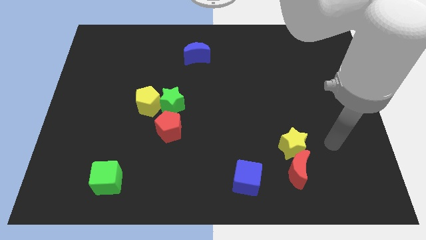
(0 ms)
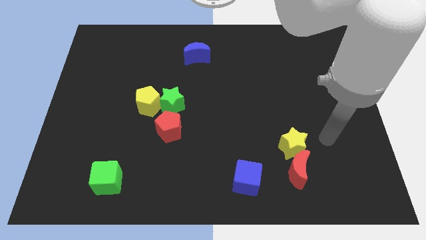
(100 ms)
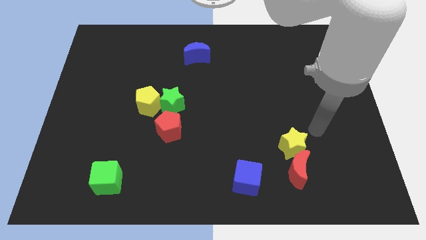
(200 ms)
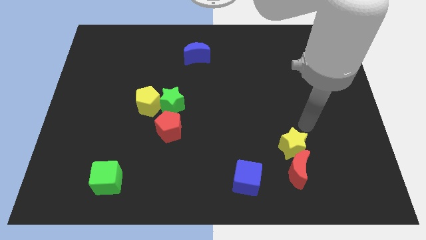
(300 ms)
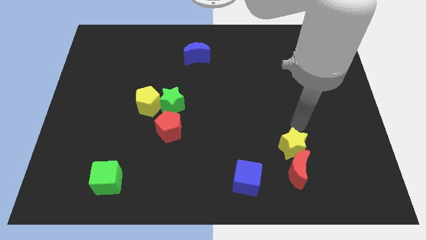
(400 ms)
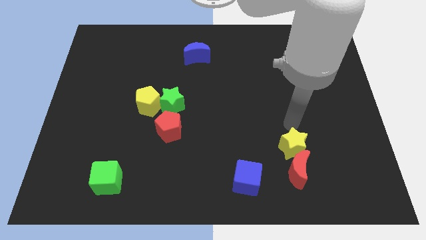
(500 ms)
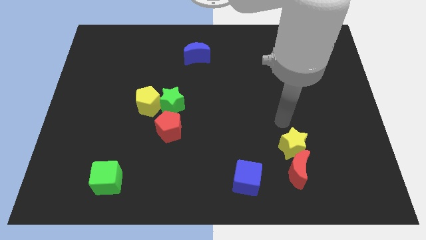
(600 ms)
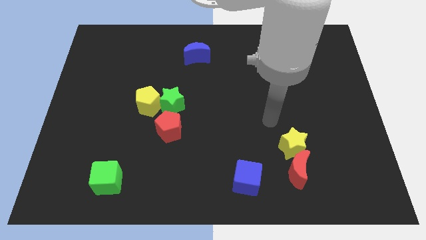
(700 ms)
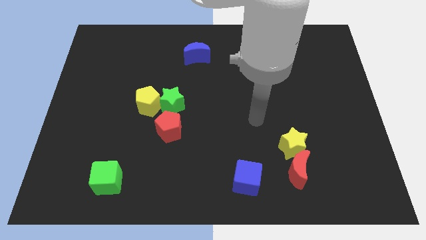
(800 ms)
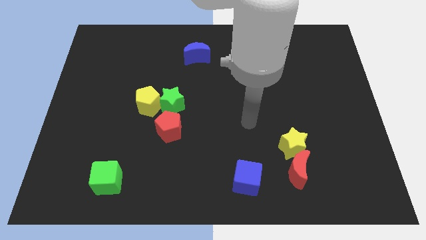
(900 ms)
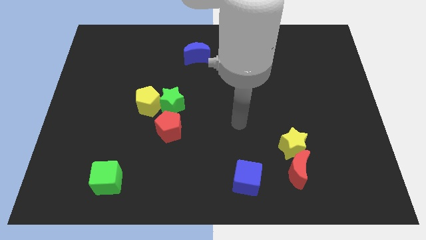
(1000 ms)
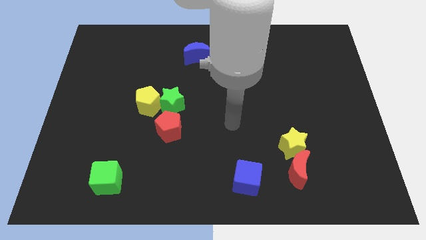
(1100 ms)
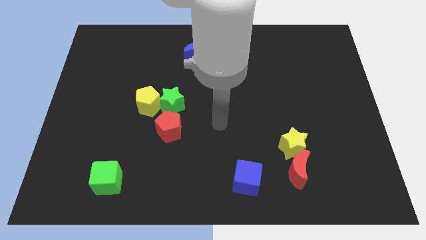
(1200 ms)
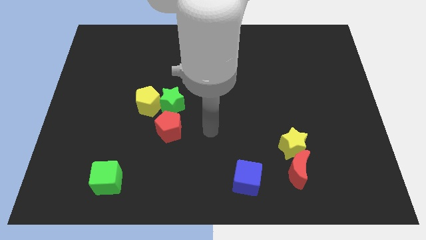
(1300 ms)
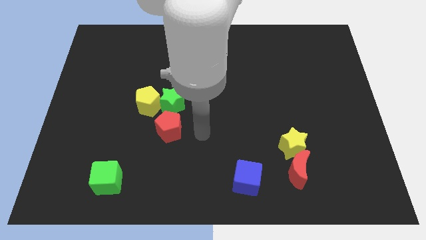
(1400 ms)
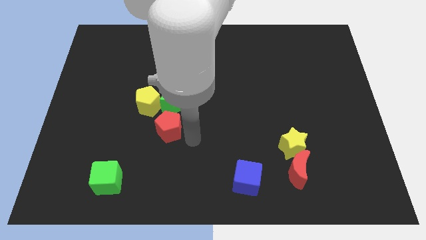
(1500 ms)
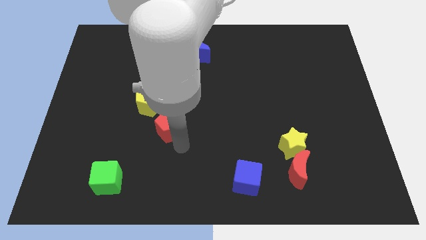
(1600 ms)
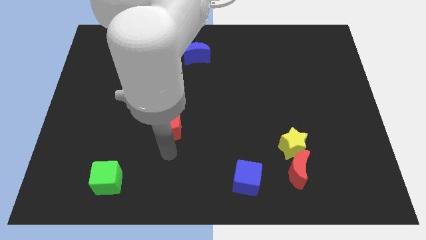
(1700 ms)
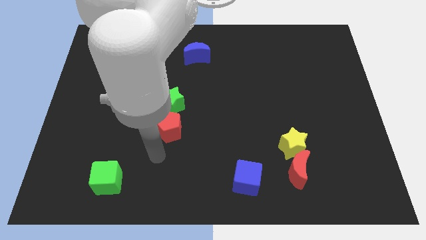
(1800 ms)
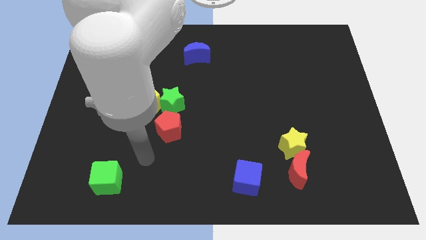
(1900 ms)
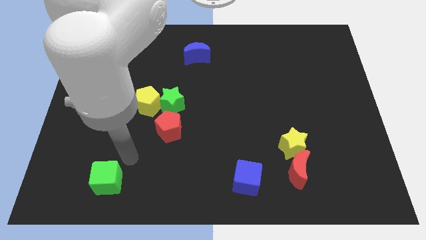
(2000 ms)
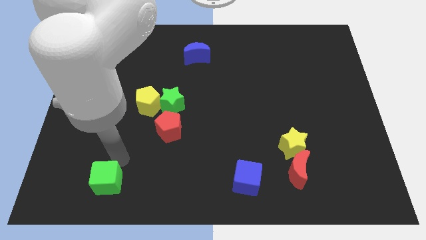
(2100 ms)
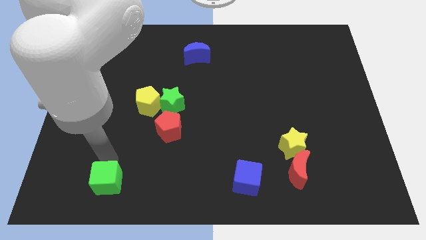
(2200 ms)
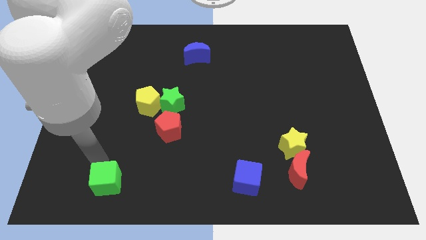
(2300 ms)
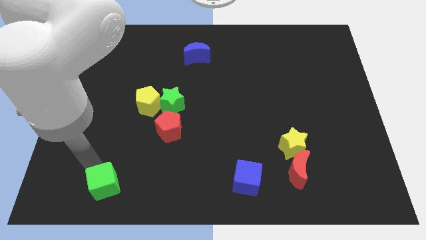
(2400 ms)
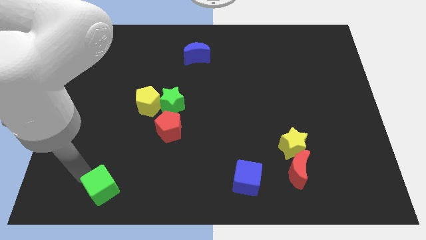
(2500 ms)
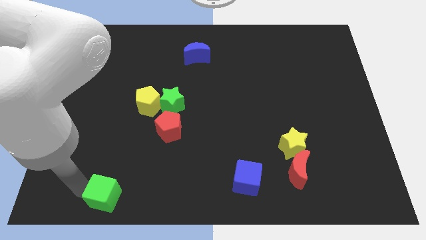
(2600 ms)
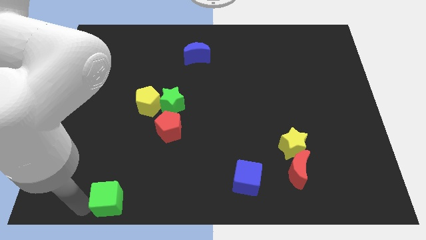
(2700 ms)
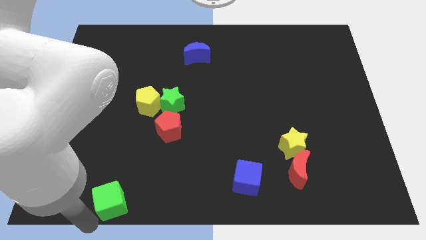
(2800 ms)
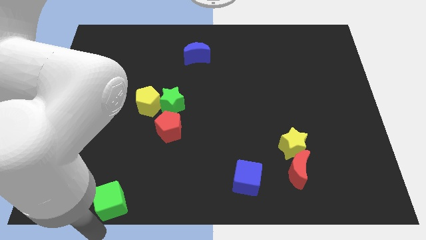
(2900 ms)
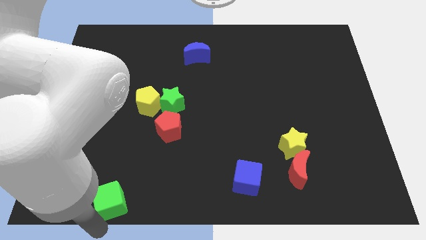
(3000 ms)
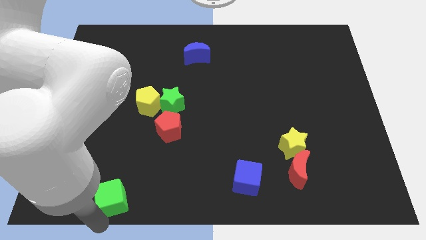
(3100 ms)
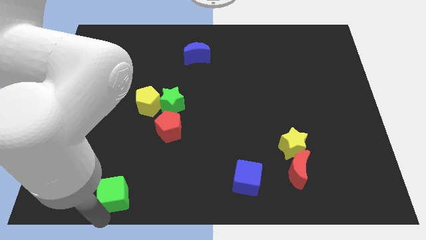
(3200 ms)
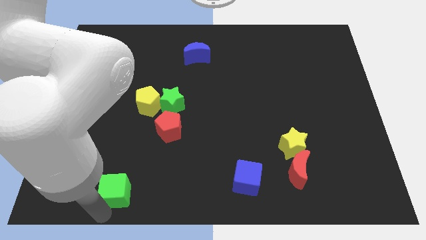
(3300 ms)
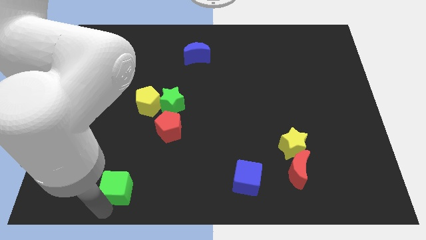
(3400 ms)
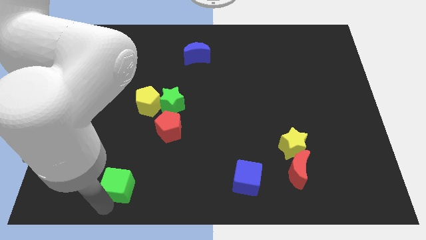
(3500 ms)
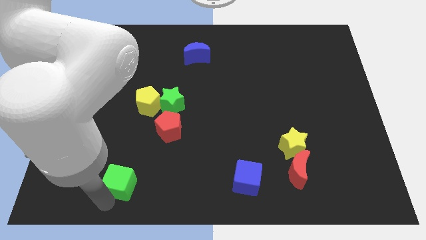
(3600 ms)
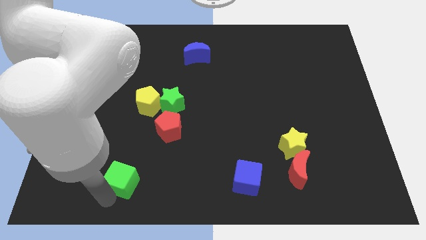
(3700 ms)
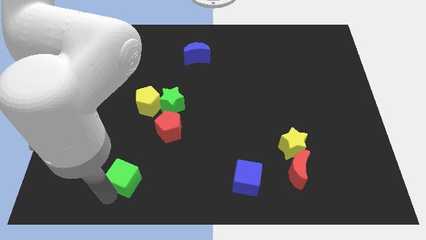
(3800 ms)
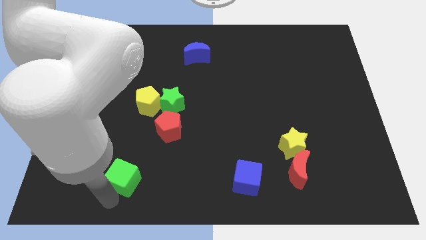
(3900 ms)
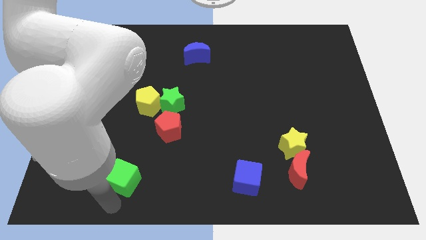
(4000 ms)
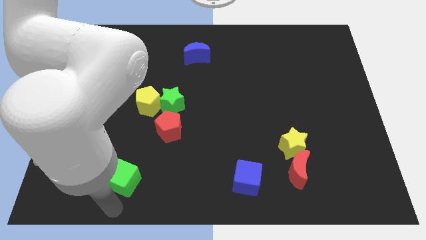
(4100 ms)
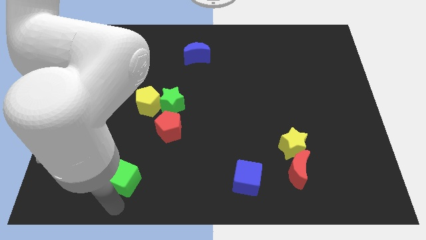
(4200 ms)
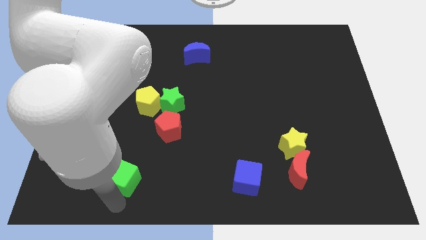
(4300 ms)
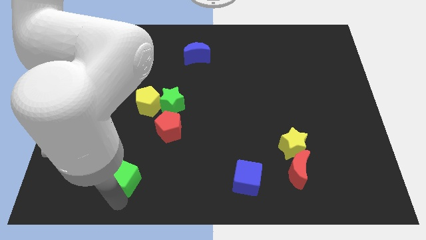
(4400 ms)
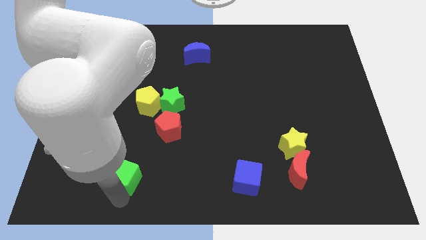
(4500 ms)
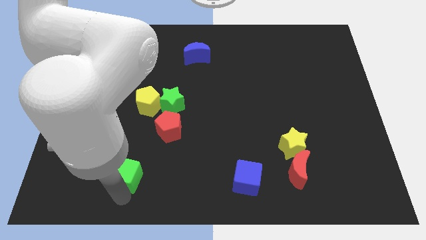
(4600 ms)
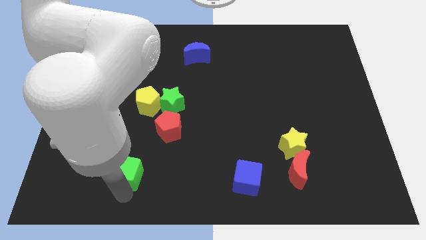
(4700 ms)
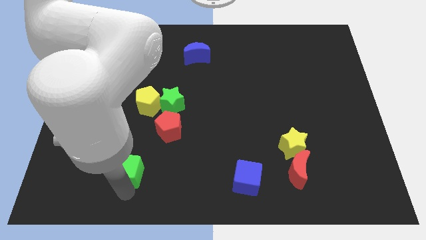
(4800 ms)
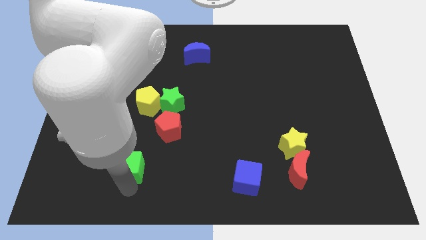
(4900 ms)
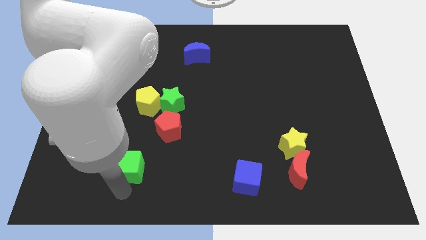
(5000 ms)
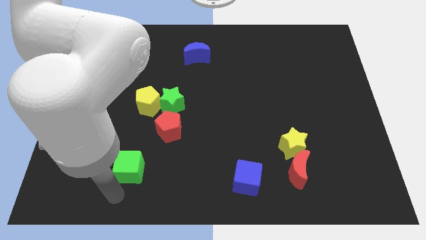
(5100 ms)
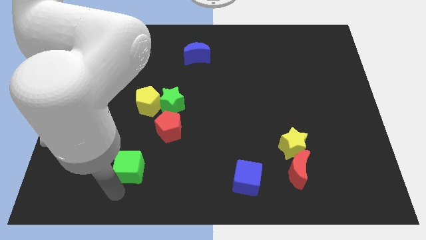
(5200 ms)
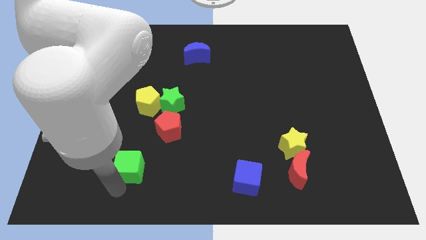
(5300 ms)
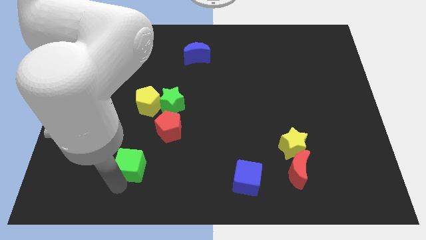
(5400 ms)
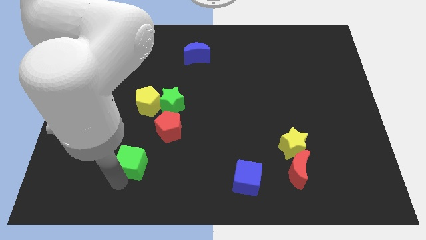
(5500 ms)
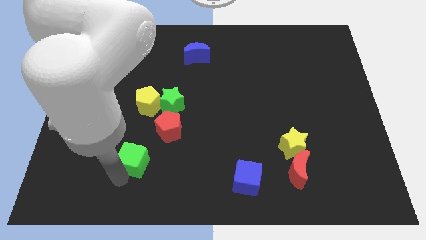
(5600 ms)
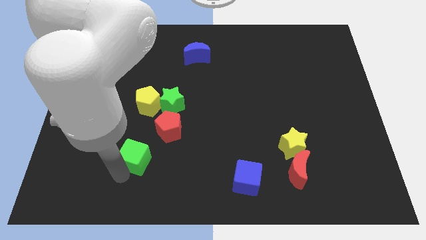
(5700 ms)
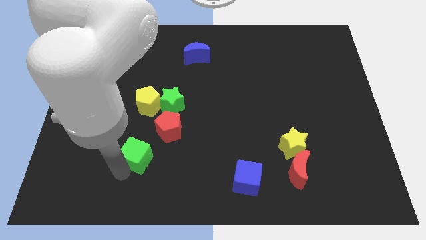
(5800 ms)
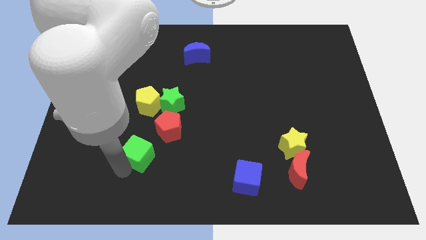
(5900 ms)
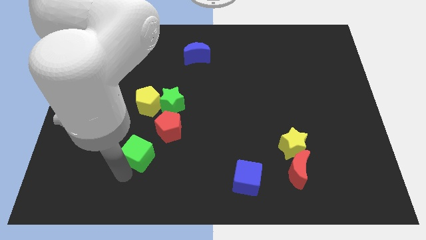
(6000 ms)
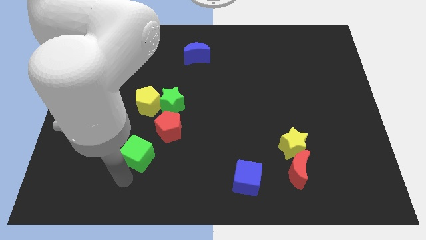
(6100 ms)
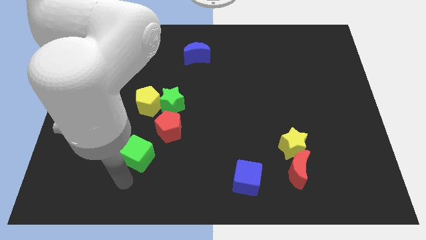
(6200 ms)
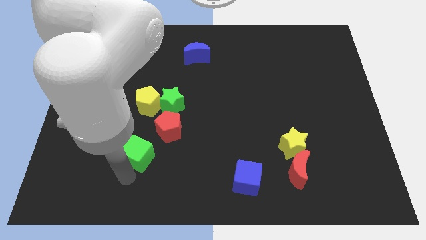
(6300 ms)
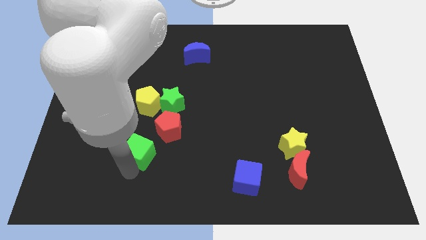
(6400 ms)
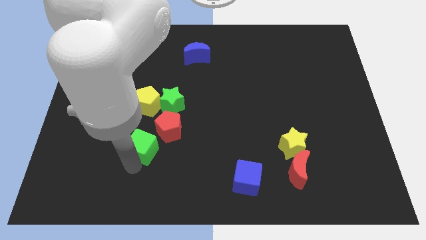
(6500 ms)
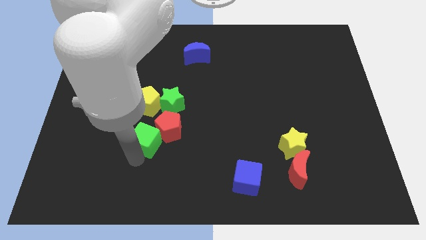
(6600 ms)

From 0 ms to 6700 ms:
put the green cube towards the red pentagon
